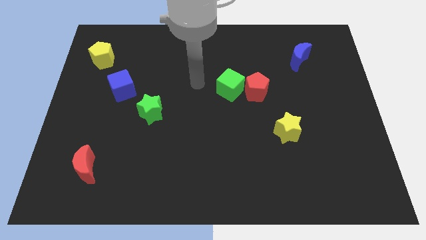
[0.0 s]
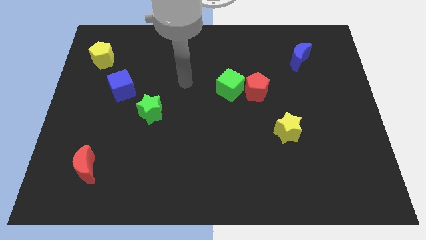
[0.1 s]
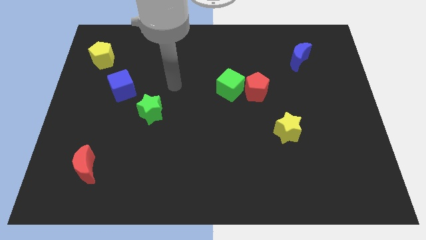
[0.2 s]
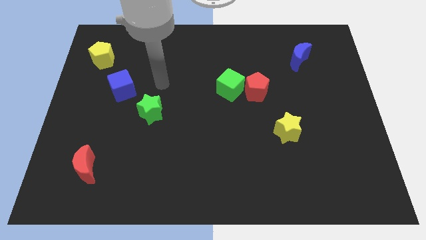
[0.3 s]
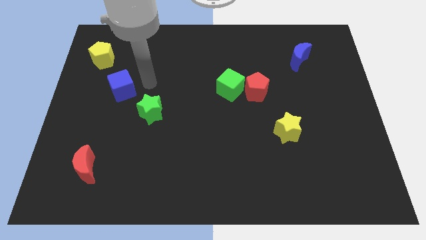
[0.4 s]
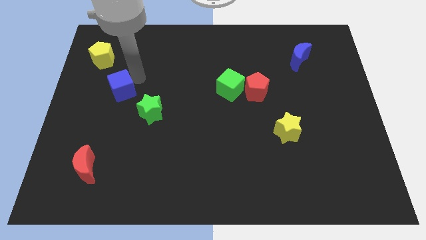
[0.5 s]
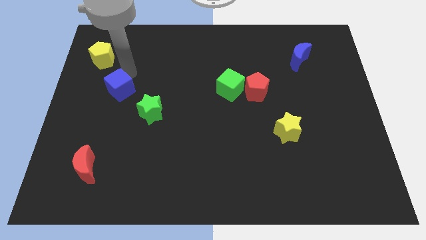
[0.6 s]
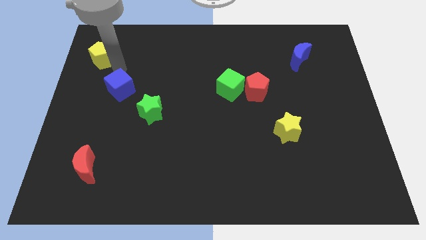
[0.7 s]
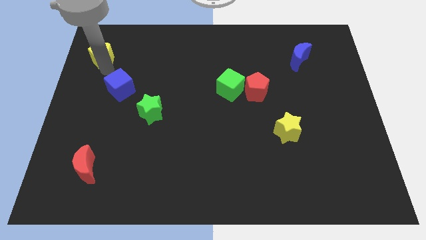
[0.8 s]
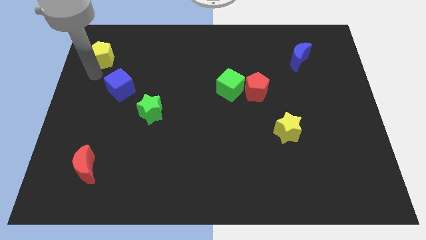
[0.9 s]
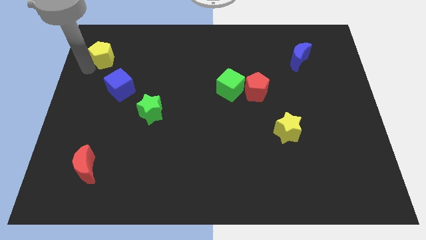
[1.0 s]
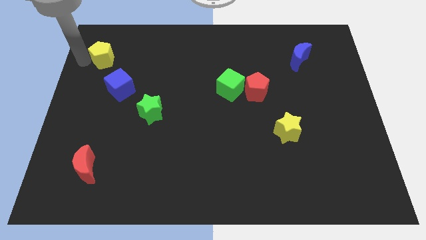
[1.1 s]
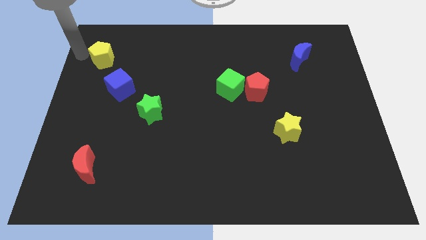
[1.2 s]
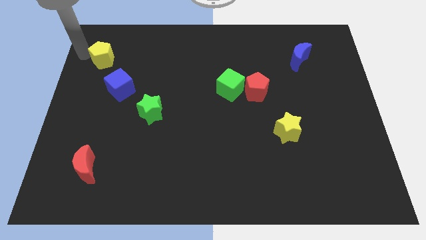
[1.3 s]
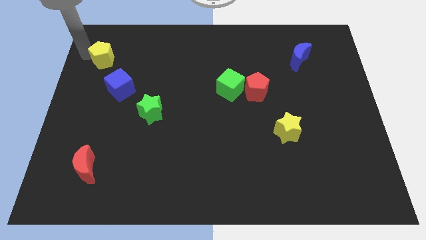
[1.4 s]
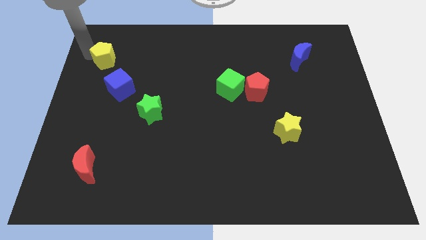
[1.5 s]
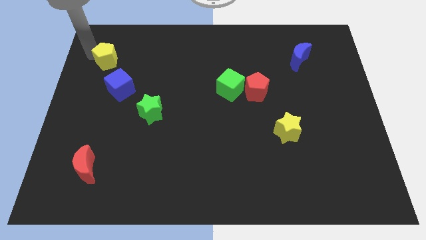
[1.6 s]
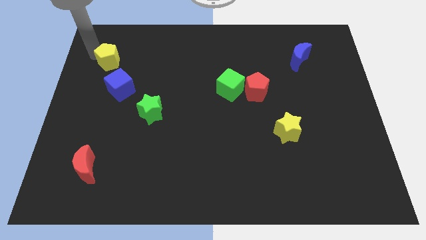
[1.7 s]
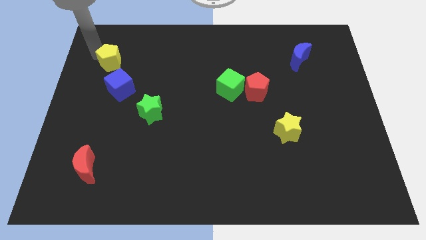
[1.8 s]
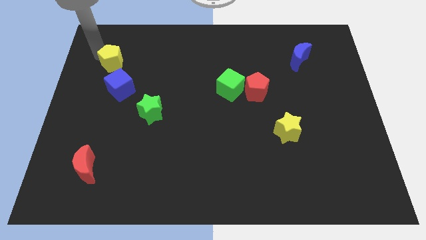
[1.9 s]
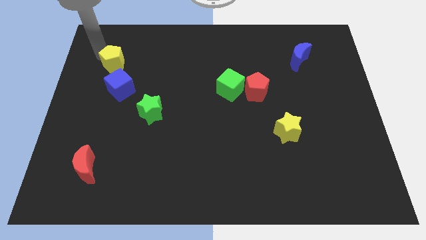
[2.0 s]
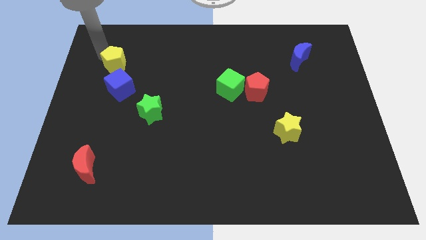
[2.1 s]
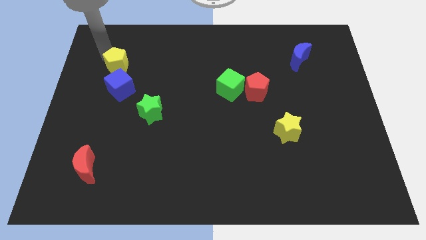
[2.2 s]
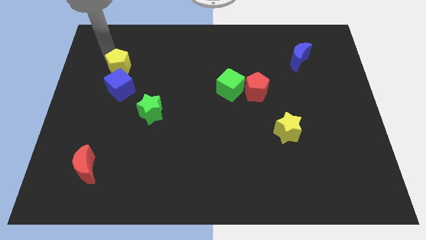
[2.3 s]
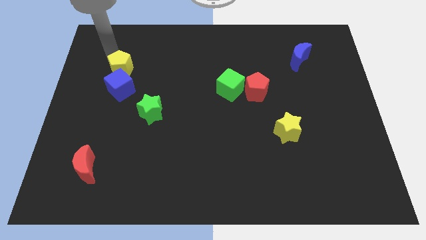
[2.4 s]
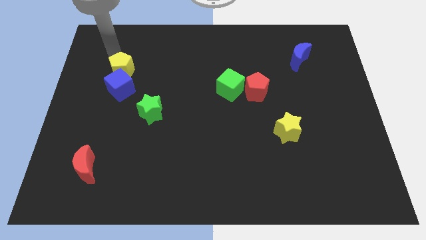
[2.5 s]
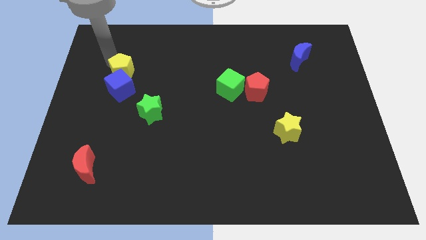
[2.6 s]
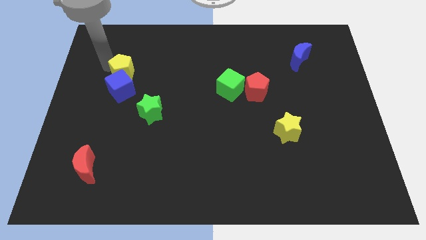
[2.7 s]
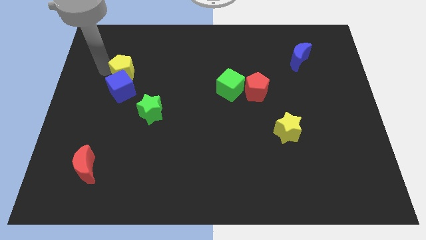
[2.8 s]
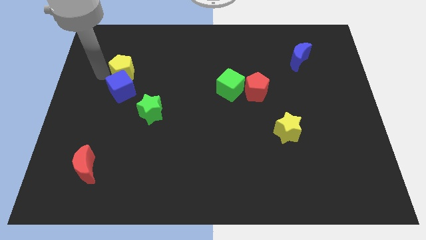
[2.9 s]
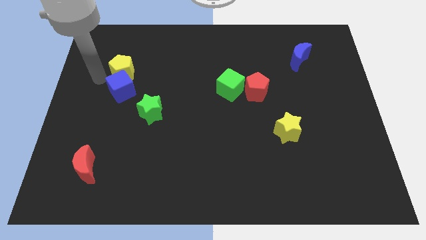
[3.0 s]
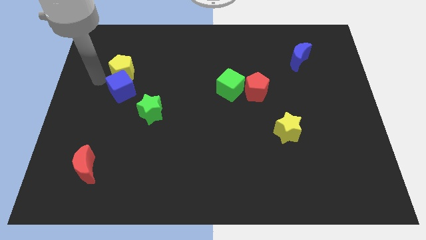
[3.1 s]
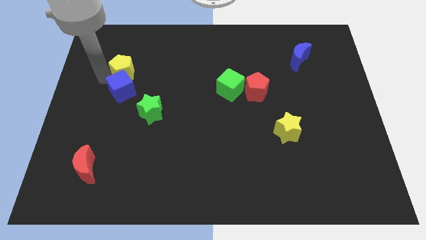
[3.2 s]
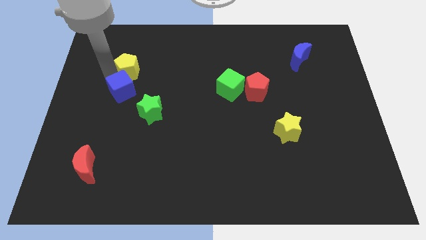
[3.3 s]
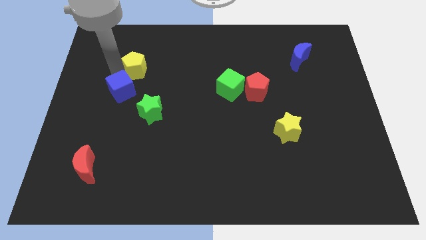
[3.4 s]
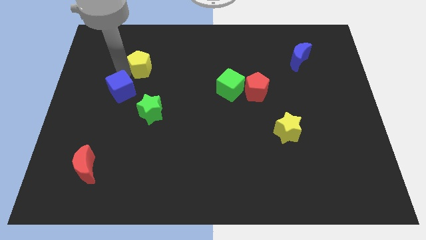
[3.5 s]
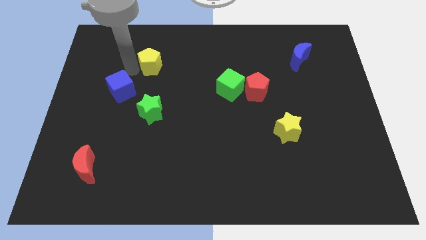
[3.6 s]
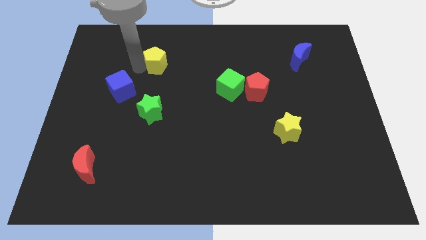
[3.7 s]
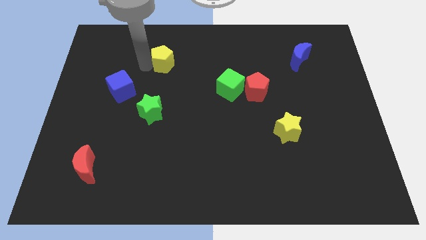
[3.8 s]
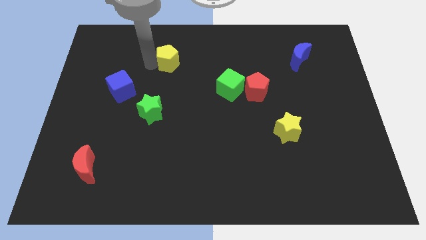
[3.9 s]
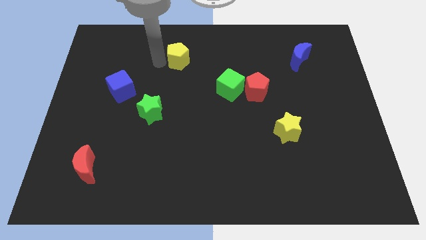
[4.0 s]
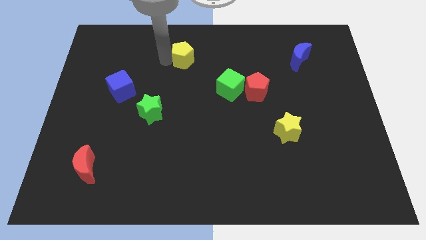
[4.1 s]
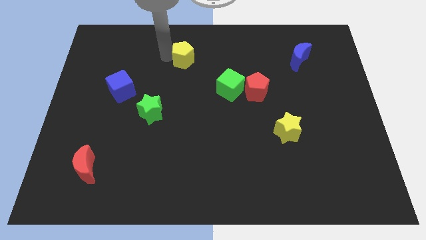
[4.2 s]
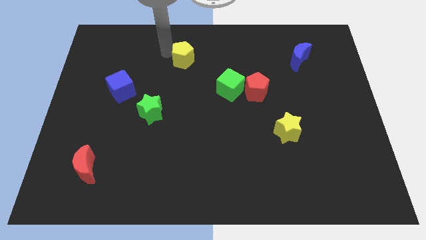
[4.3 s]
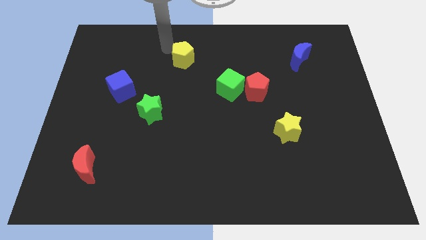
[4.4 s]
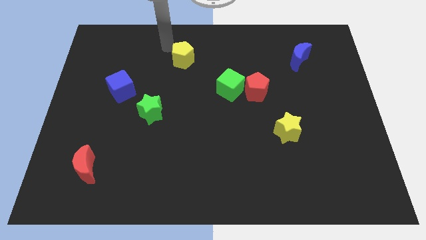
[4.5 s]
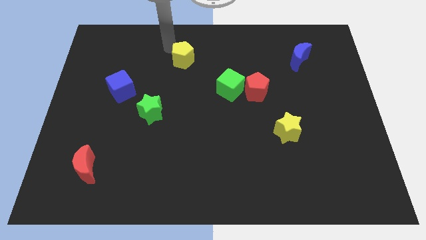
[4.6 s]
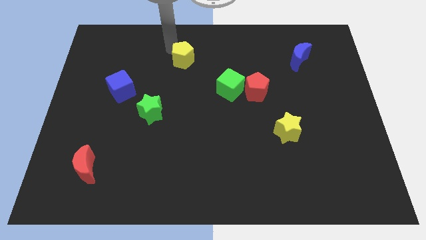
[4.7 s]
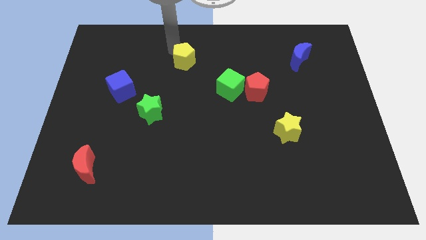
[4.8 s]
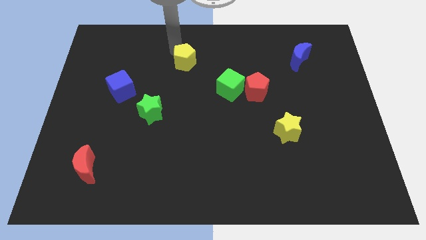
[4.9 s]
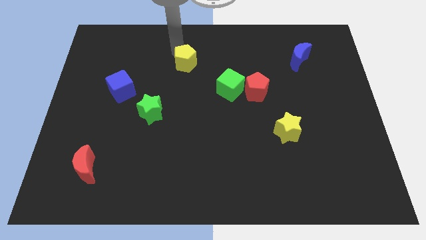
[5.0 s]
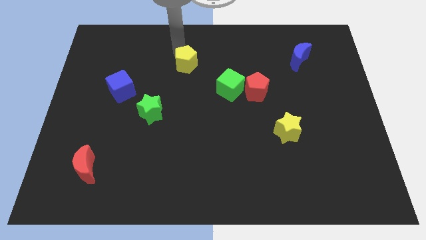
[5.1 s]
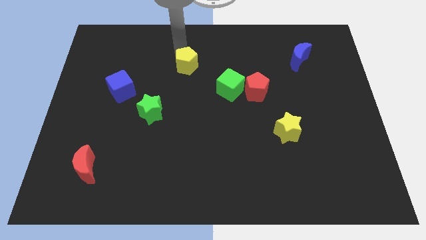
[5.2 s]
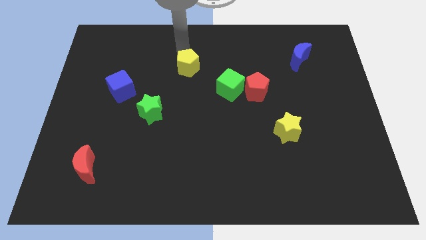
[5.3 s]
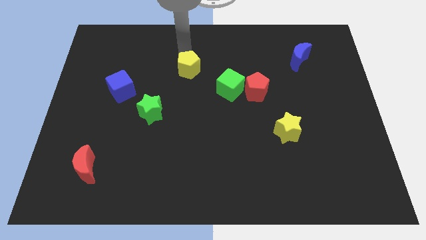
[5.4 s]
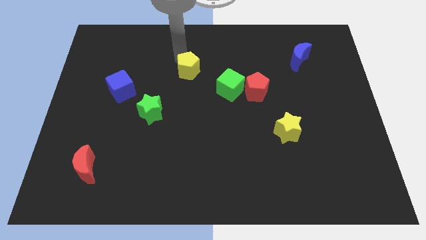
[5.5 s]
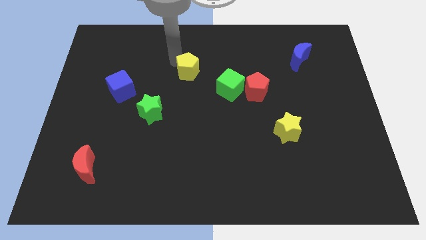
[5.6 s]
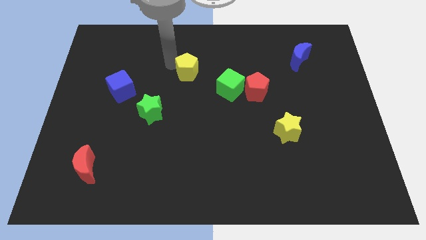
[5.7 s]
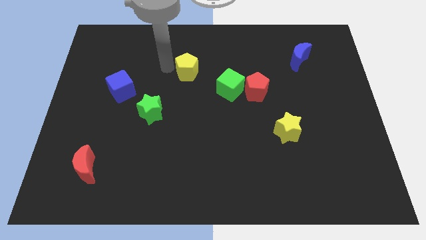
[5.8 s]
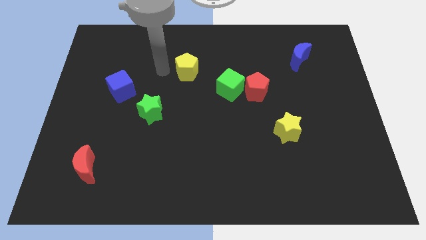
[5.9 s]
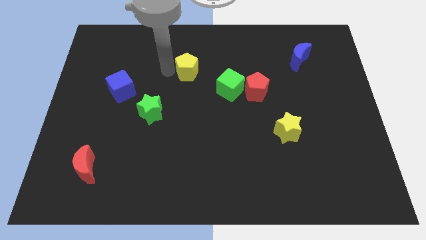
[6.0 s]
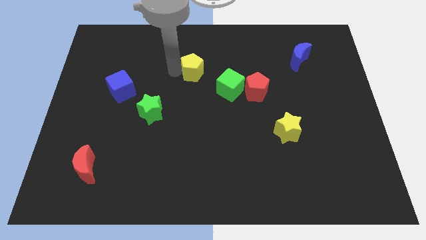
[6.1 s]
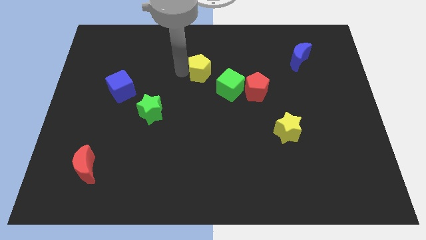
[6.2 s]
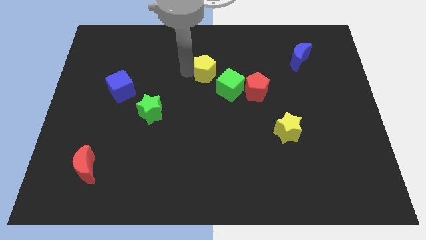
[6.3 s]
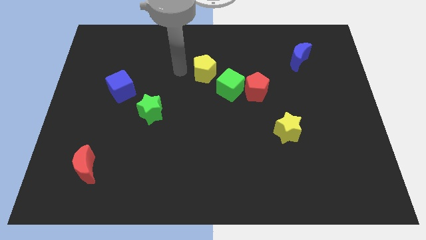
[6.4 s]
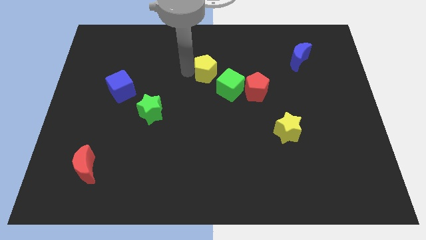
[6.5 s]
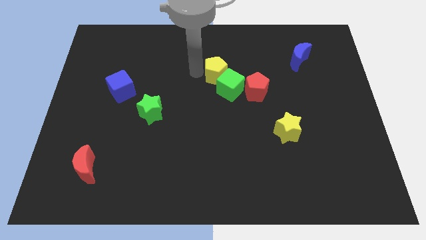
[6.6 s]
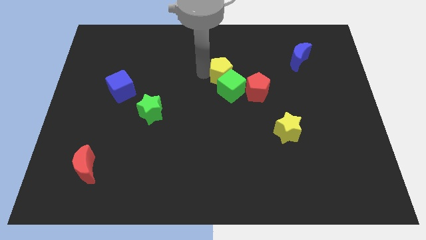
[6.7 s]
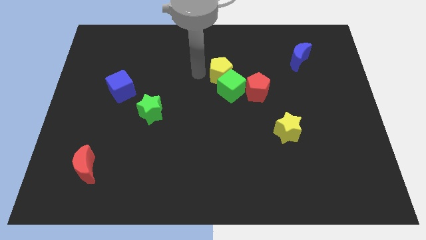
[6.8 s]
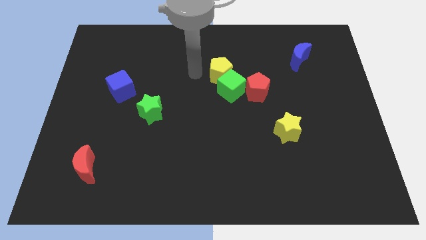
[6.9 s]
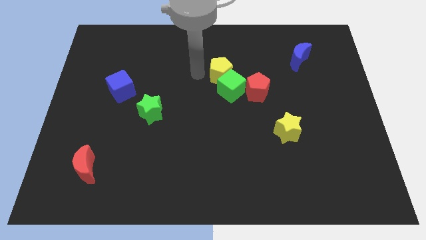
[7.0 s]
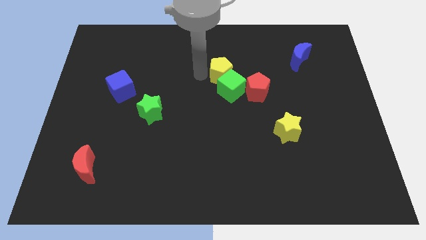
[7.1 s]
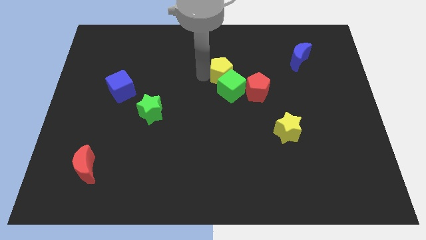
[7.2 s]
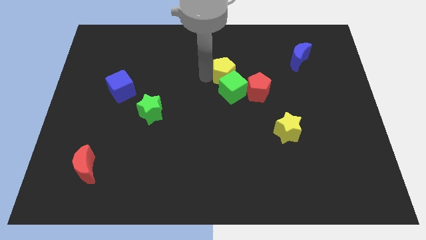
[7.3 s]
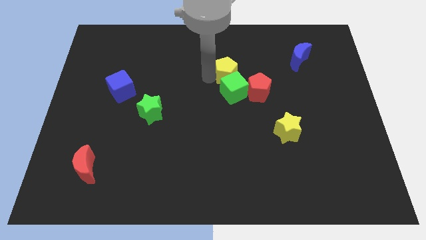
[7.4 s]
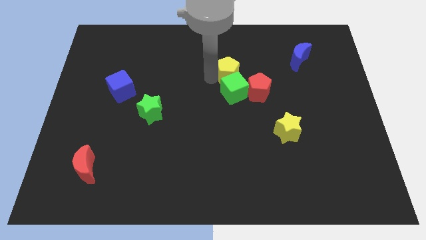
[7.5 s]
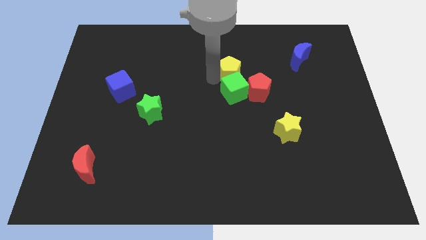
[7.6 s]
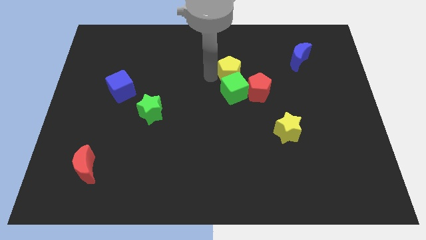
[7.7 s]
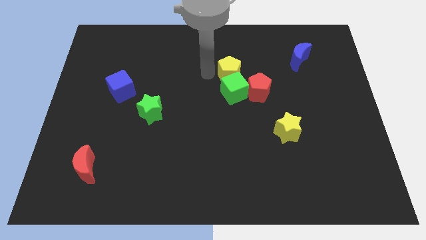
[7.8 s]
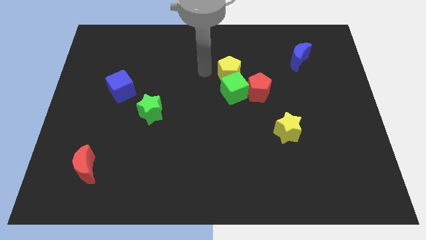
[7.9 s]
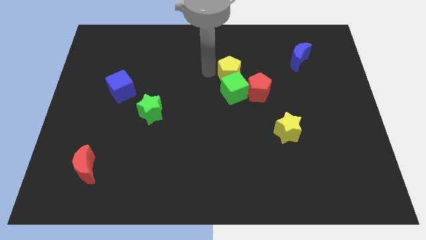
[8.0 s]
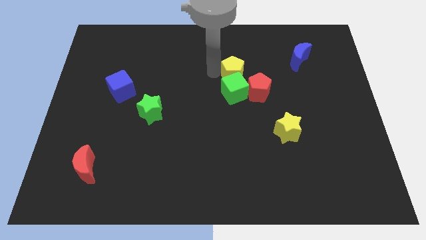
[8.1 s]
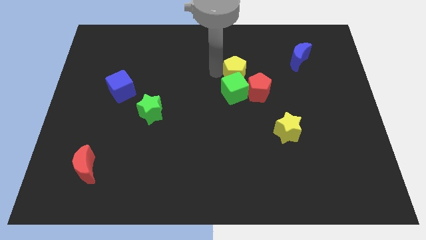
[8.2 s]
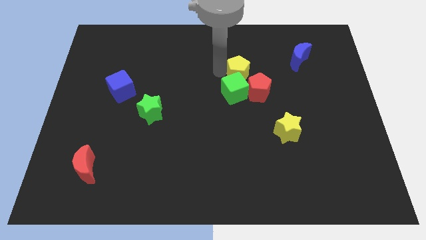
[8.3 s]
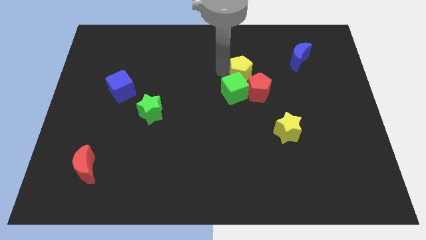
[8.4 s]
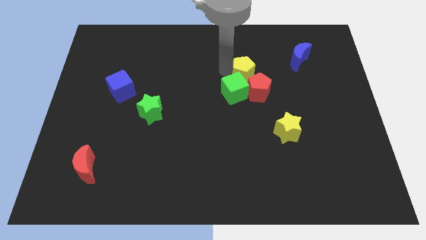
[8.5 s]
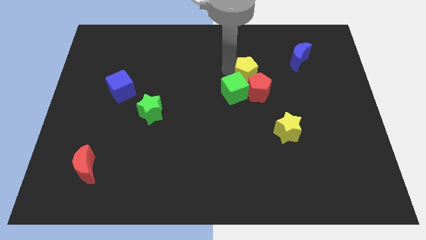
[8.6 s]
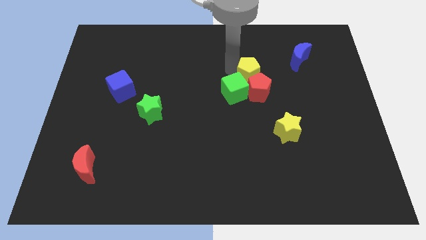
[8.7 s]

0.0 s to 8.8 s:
push the yellow pentagon close to the red pentagon
